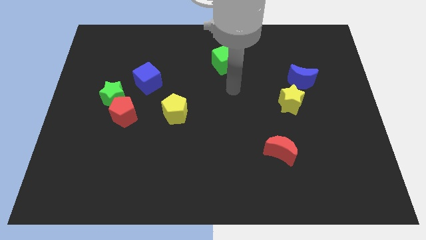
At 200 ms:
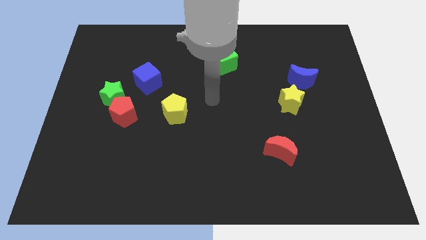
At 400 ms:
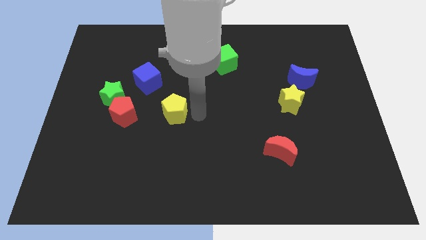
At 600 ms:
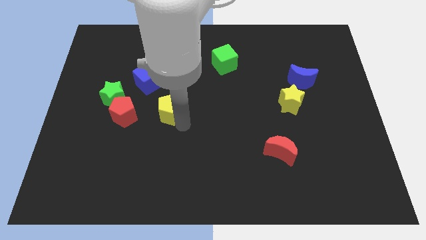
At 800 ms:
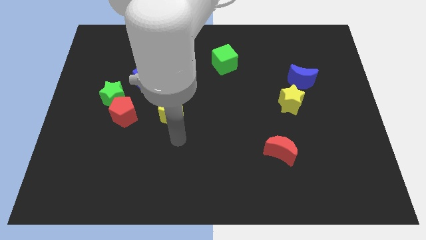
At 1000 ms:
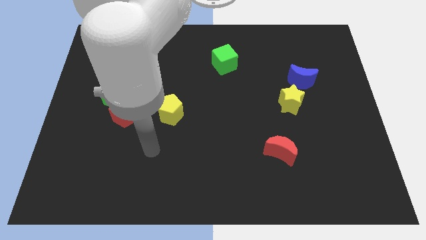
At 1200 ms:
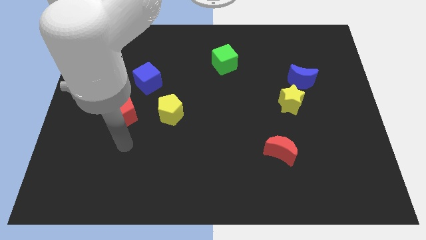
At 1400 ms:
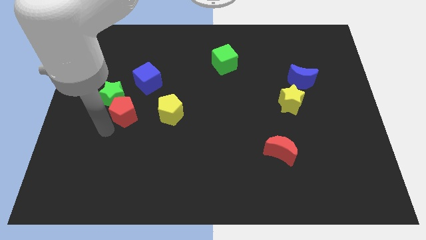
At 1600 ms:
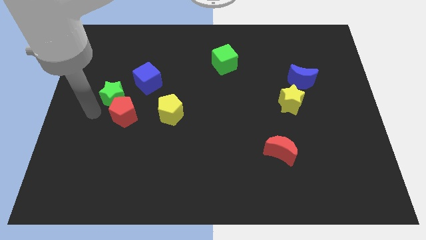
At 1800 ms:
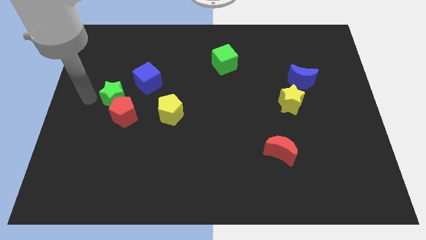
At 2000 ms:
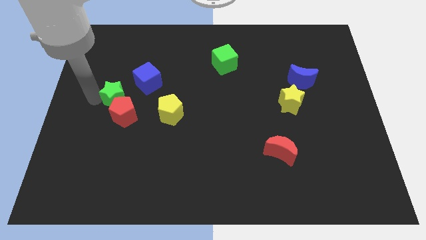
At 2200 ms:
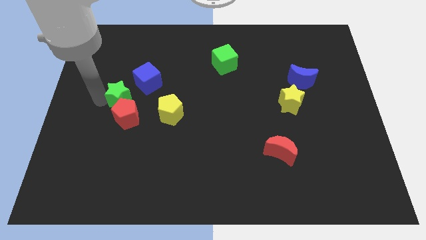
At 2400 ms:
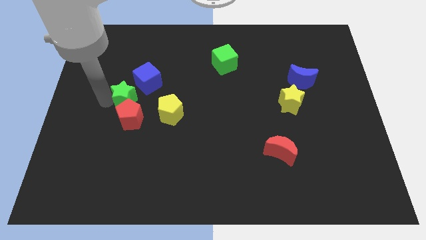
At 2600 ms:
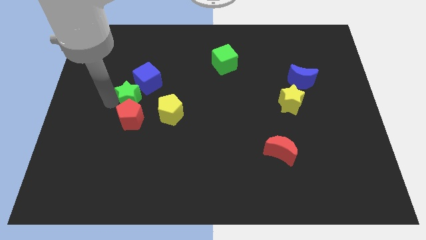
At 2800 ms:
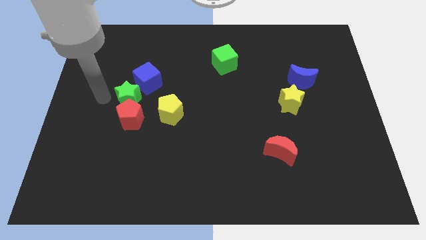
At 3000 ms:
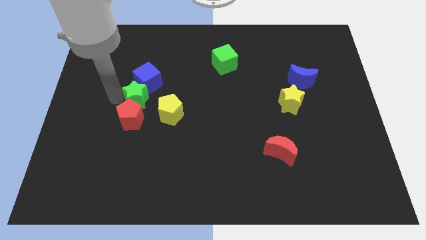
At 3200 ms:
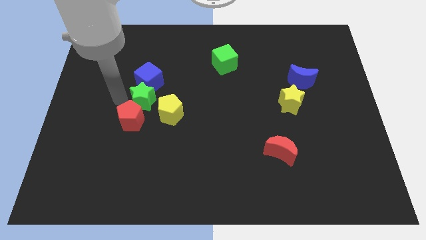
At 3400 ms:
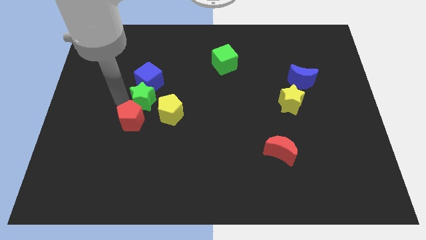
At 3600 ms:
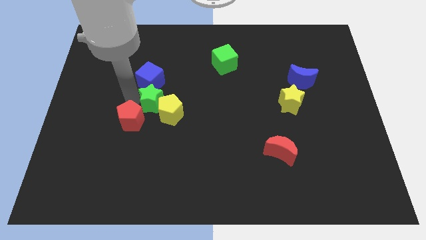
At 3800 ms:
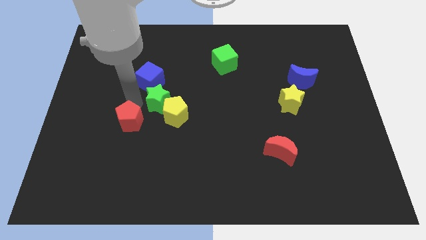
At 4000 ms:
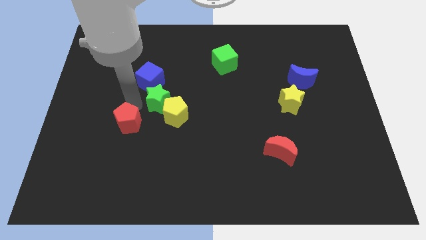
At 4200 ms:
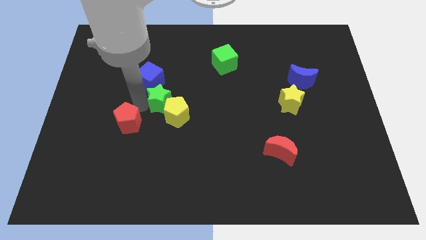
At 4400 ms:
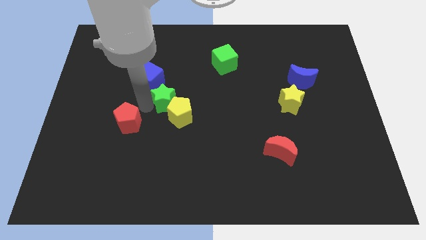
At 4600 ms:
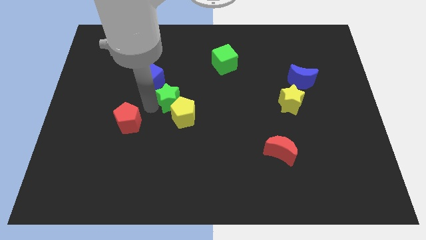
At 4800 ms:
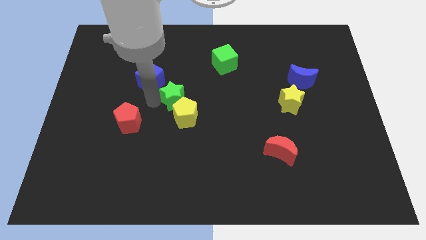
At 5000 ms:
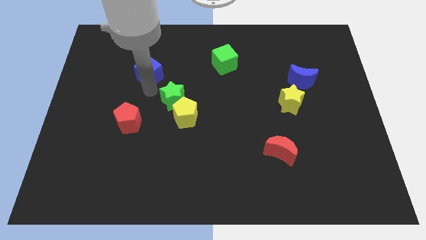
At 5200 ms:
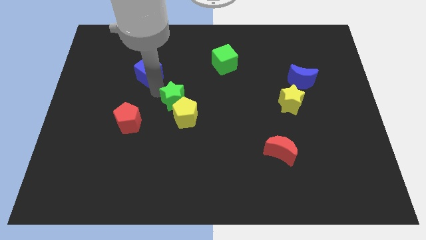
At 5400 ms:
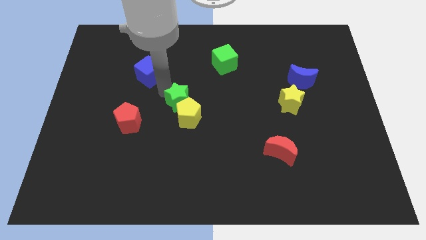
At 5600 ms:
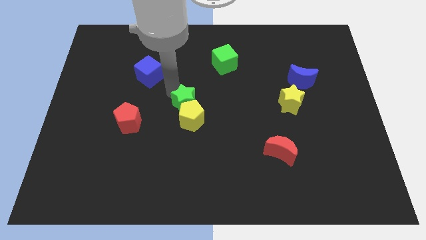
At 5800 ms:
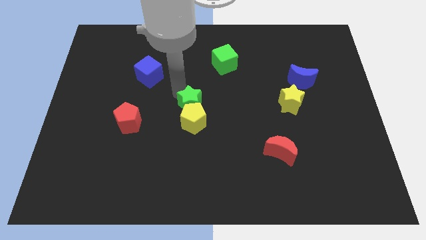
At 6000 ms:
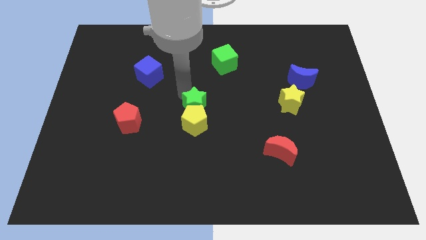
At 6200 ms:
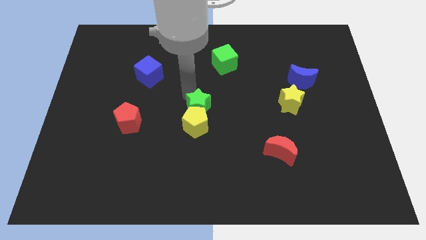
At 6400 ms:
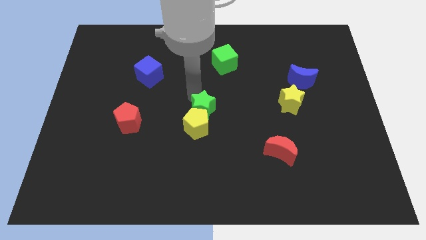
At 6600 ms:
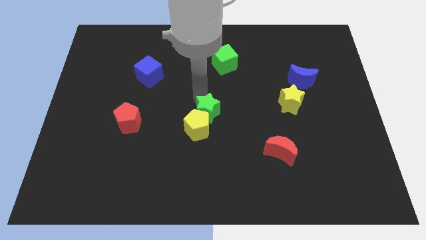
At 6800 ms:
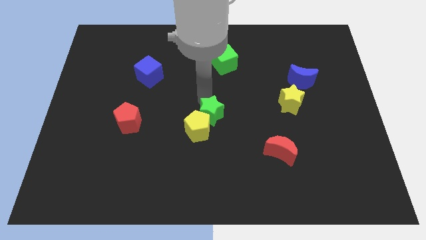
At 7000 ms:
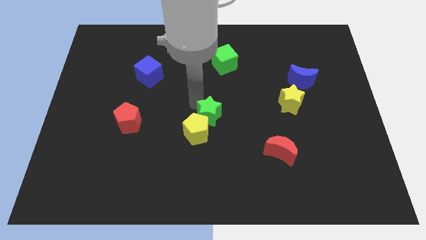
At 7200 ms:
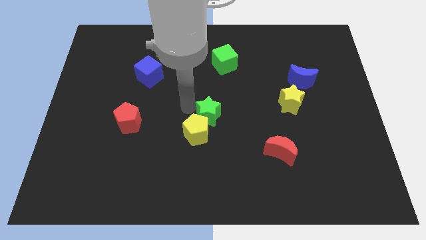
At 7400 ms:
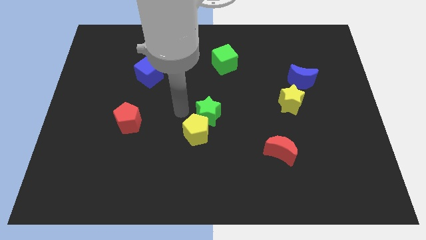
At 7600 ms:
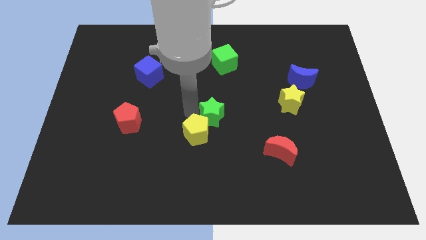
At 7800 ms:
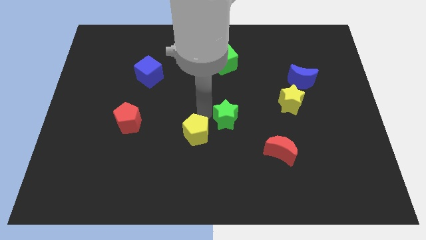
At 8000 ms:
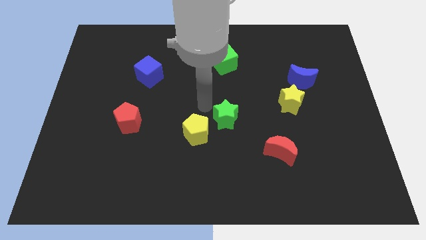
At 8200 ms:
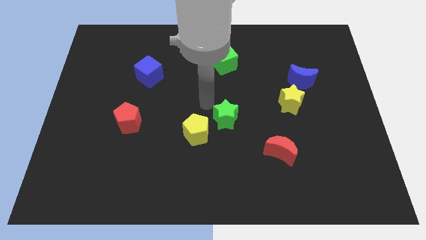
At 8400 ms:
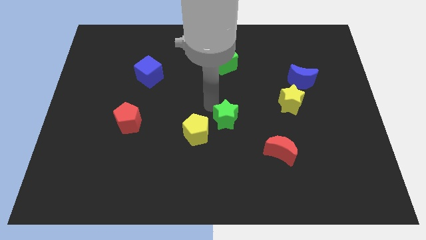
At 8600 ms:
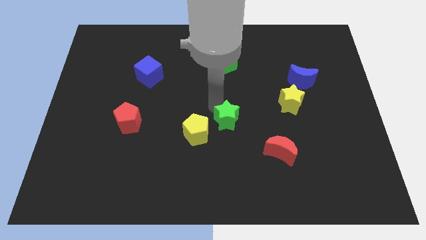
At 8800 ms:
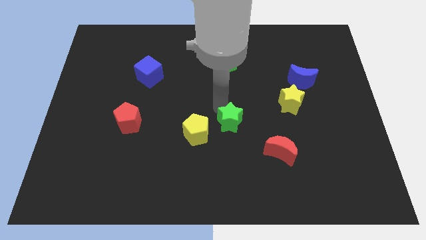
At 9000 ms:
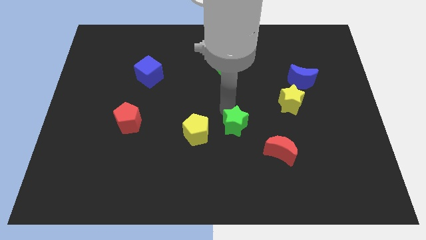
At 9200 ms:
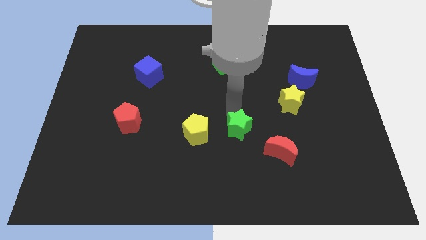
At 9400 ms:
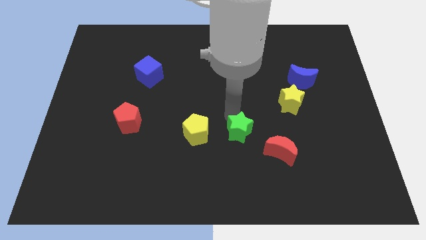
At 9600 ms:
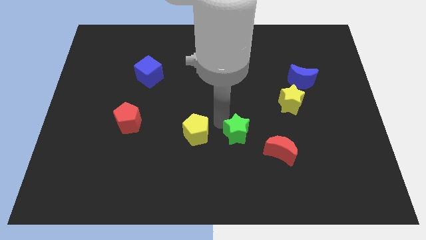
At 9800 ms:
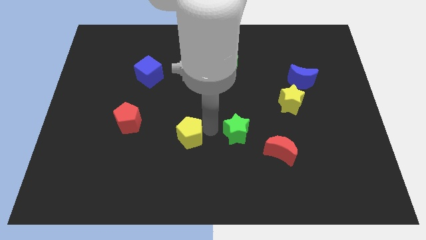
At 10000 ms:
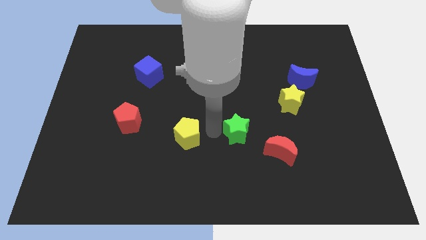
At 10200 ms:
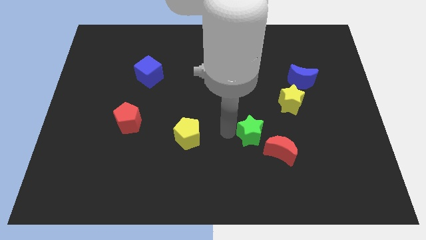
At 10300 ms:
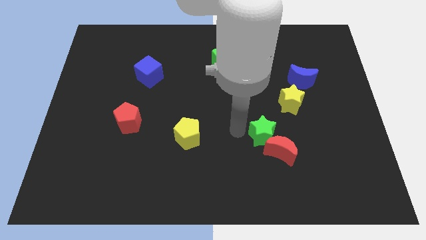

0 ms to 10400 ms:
push the green star next to the red moon

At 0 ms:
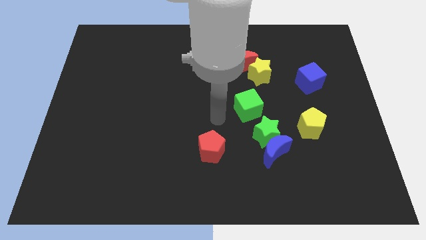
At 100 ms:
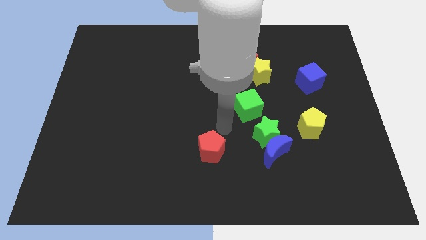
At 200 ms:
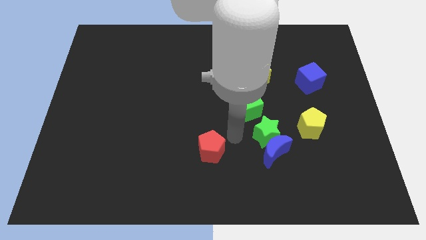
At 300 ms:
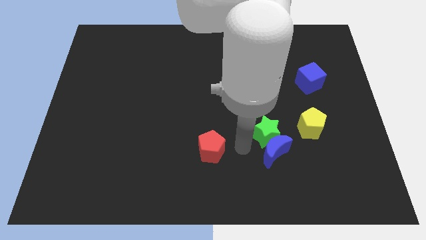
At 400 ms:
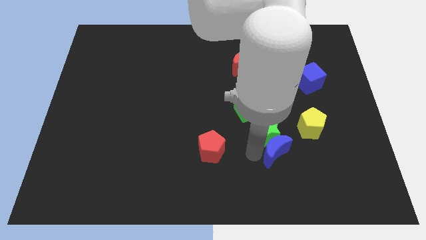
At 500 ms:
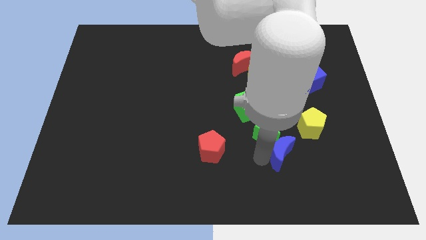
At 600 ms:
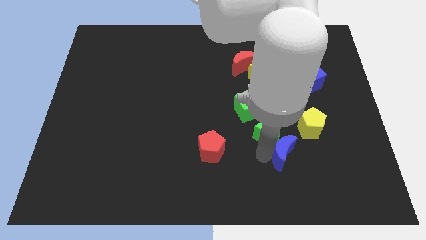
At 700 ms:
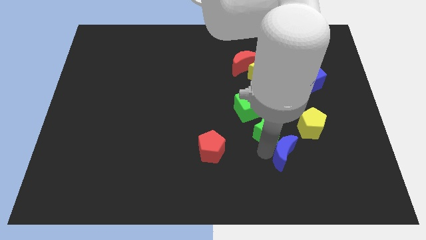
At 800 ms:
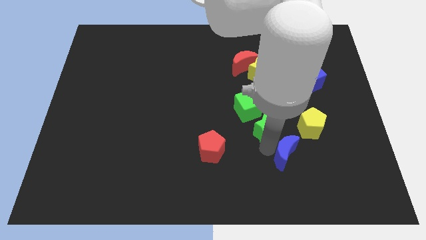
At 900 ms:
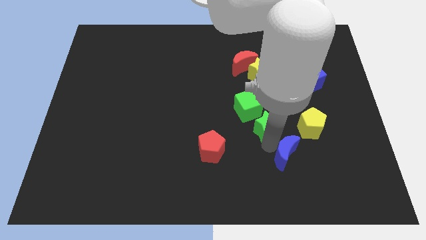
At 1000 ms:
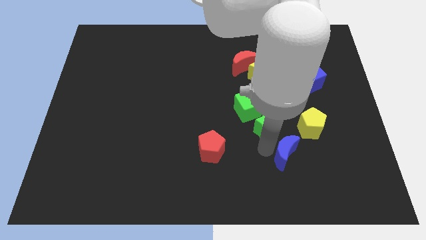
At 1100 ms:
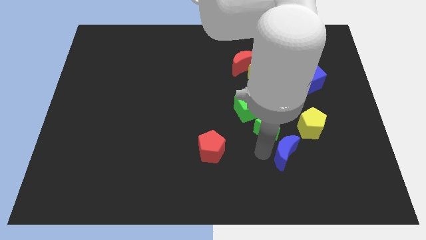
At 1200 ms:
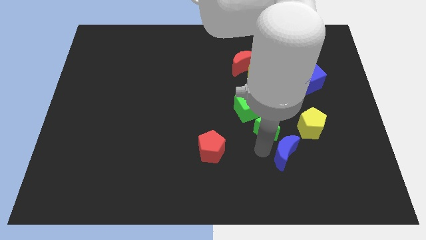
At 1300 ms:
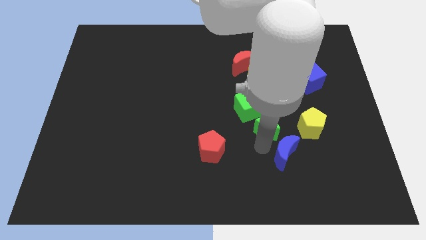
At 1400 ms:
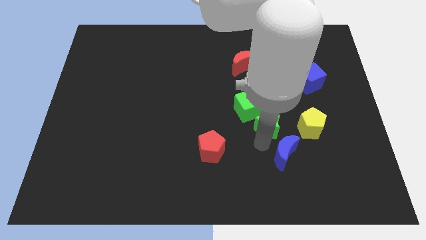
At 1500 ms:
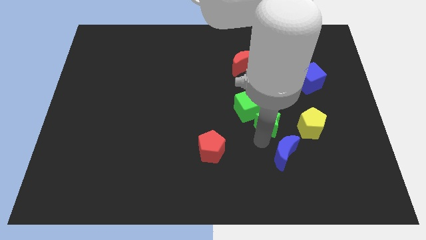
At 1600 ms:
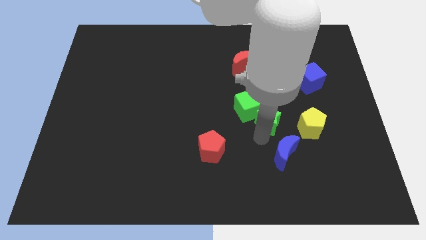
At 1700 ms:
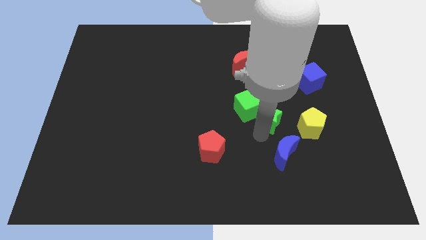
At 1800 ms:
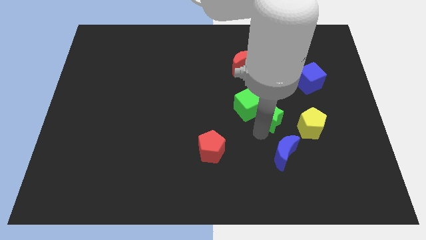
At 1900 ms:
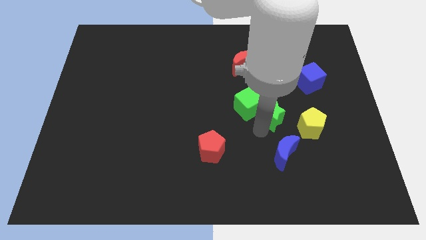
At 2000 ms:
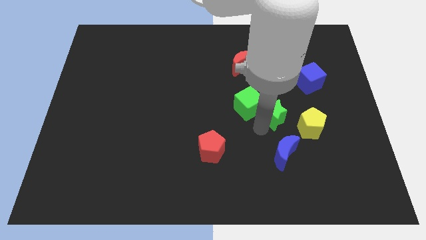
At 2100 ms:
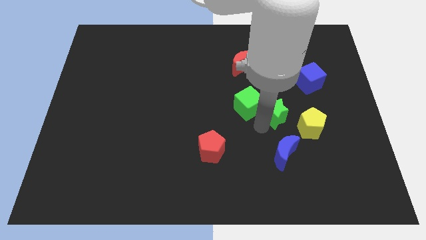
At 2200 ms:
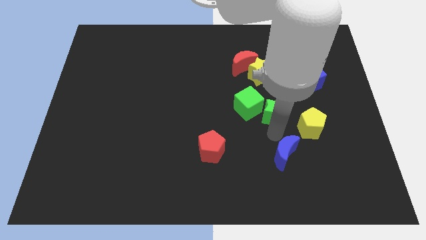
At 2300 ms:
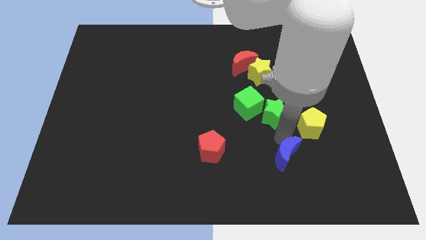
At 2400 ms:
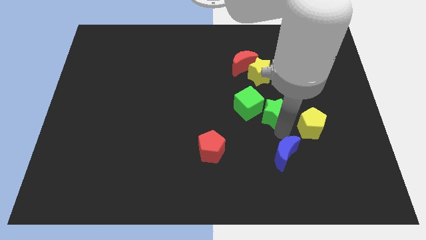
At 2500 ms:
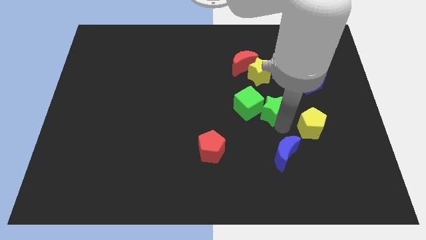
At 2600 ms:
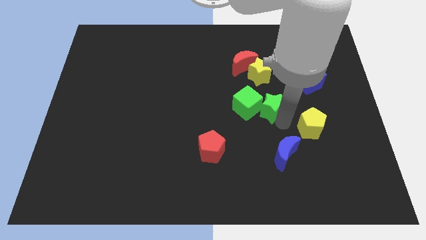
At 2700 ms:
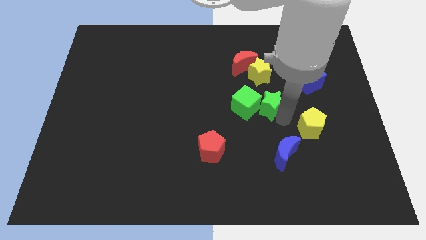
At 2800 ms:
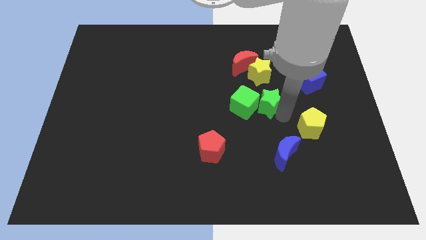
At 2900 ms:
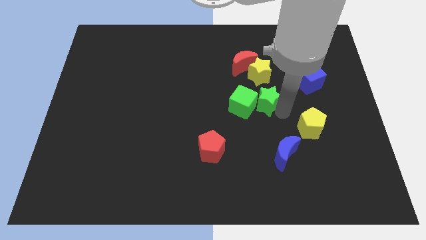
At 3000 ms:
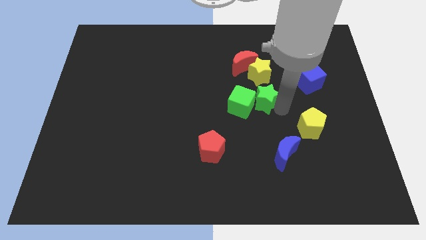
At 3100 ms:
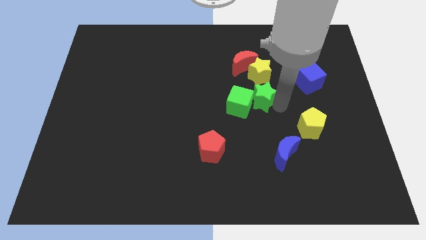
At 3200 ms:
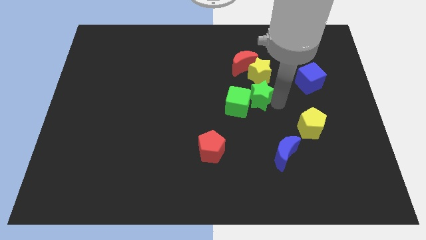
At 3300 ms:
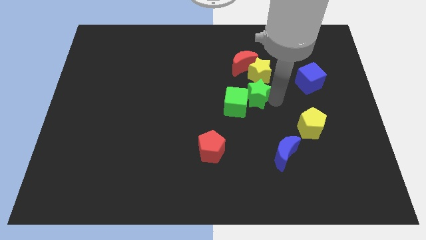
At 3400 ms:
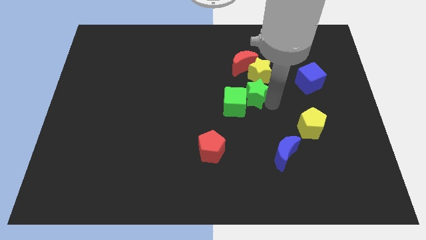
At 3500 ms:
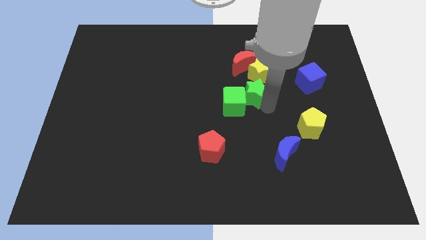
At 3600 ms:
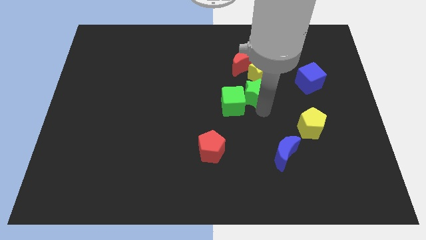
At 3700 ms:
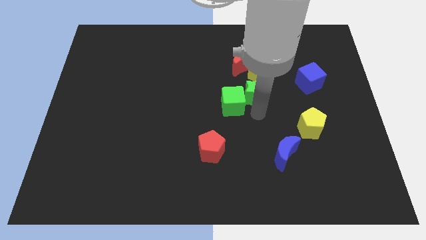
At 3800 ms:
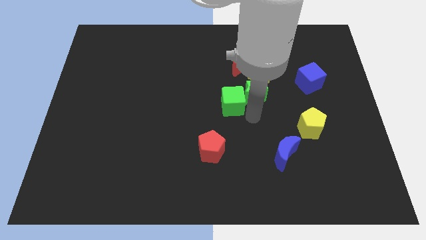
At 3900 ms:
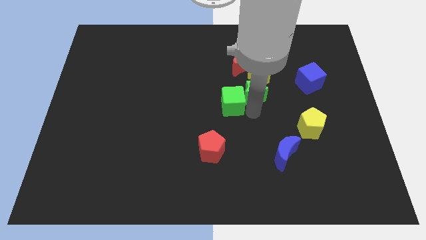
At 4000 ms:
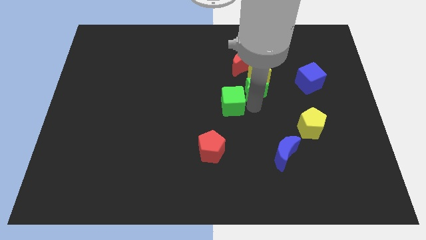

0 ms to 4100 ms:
put the green star towards the yellow star
